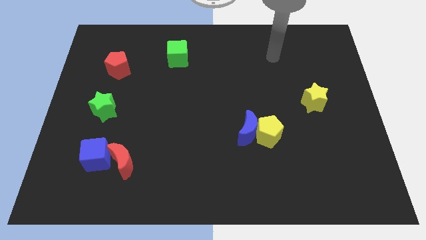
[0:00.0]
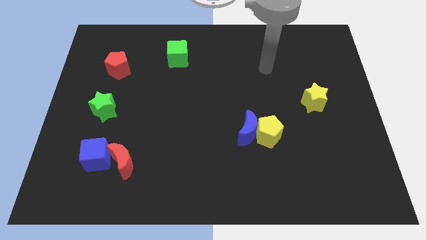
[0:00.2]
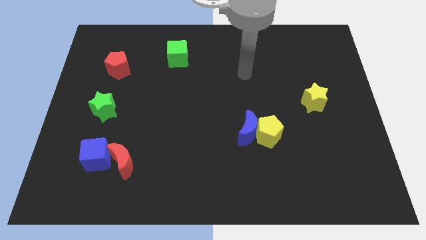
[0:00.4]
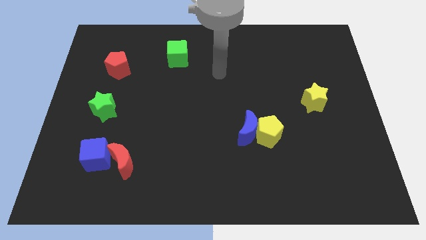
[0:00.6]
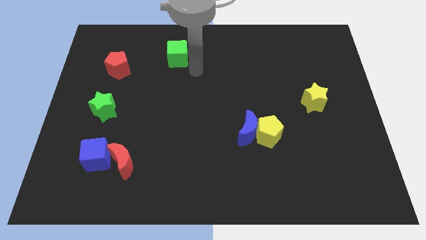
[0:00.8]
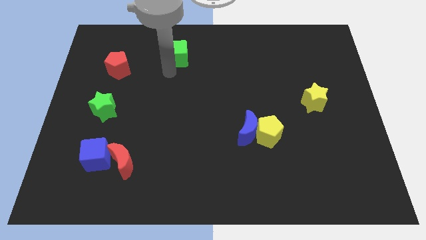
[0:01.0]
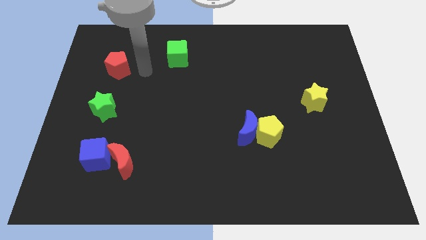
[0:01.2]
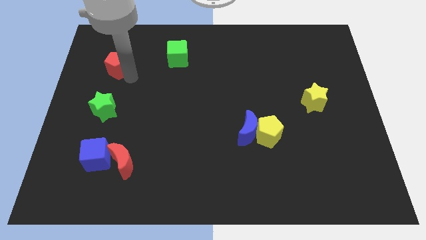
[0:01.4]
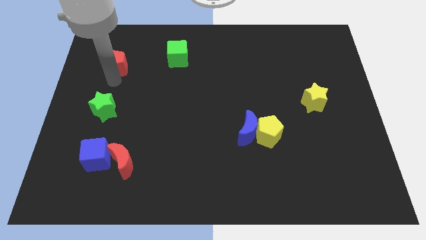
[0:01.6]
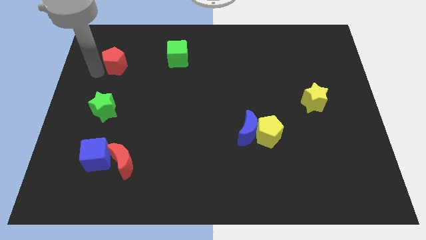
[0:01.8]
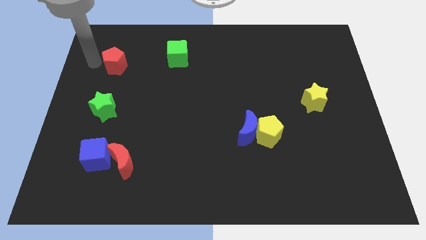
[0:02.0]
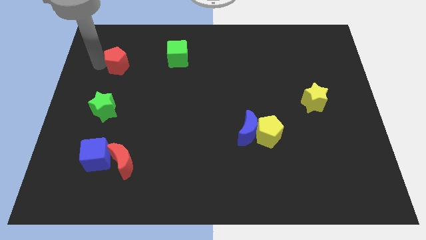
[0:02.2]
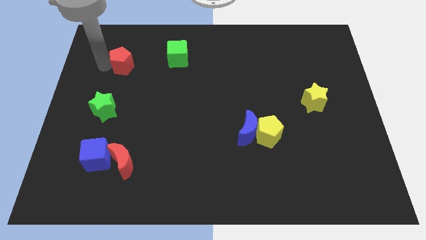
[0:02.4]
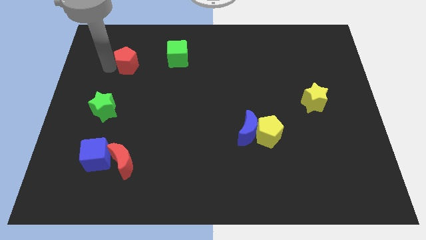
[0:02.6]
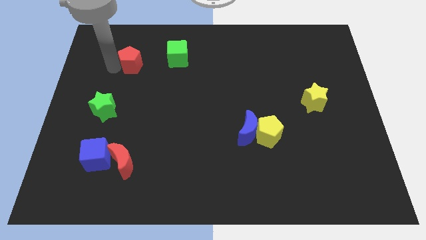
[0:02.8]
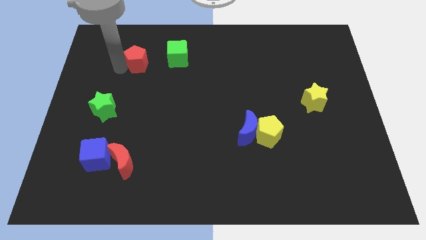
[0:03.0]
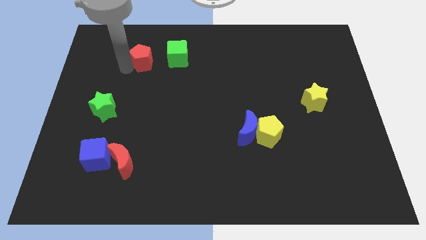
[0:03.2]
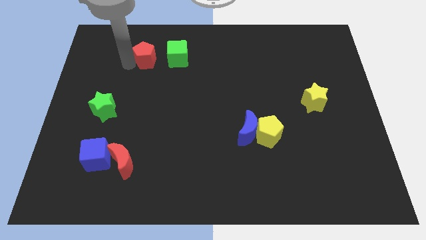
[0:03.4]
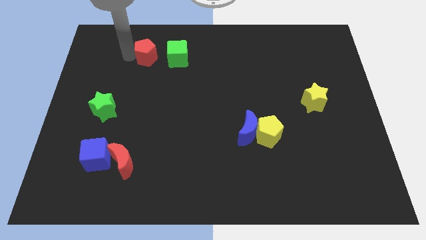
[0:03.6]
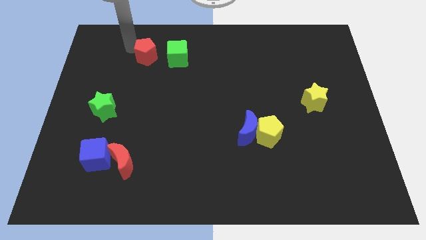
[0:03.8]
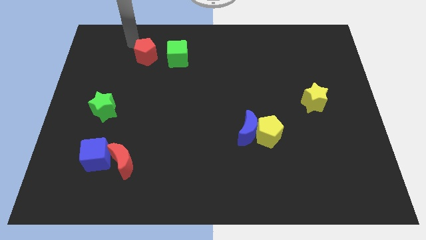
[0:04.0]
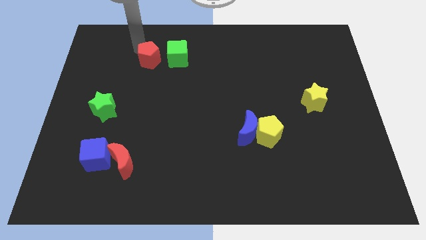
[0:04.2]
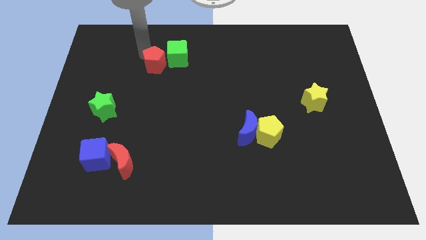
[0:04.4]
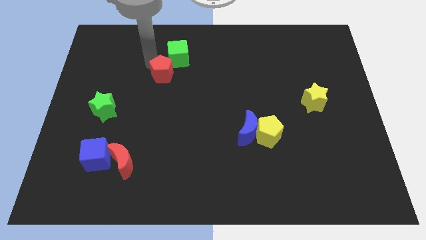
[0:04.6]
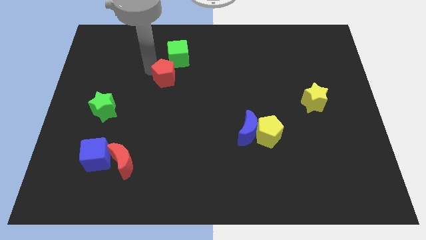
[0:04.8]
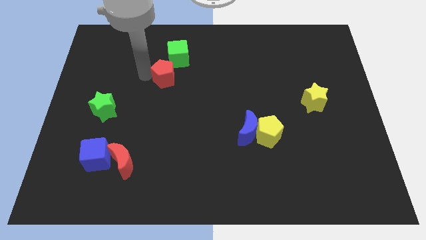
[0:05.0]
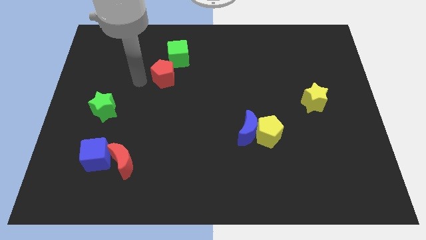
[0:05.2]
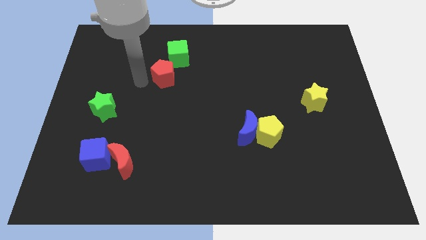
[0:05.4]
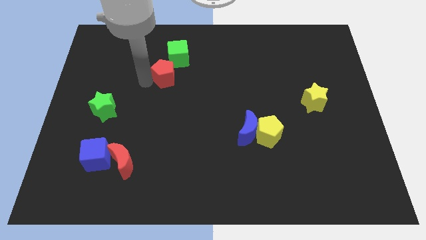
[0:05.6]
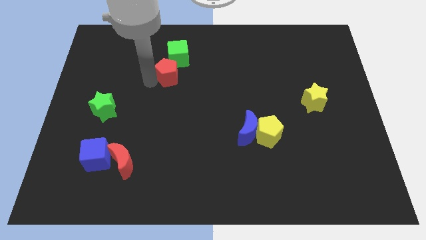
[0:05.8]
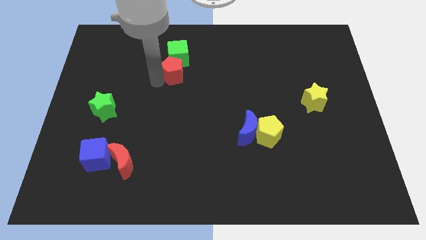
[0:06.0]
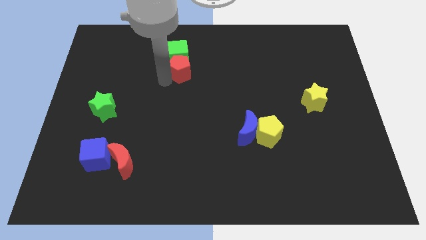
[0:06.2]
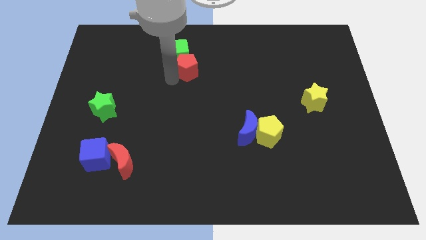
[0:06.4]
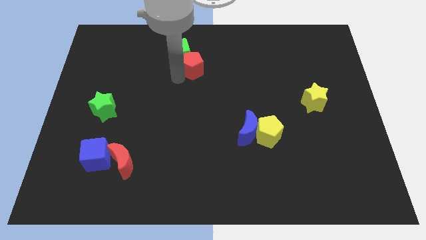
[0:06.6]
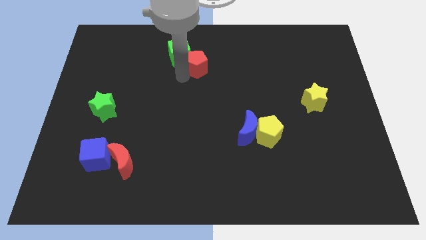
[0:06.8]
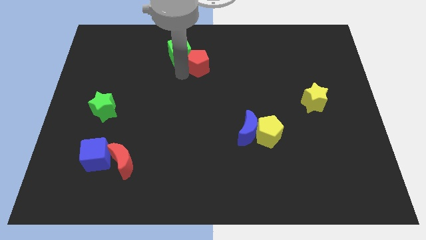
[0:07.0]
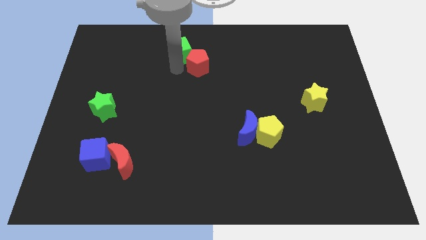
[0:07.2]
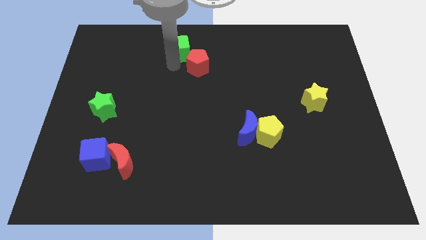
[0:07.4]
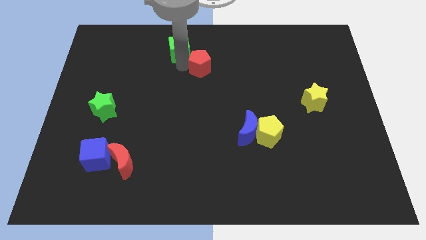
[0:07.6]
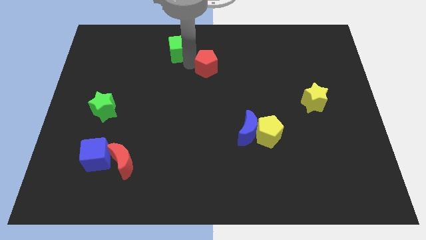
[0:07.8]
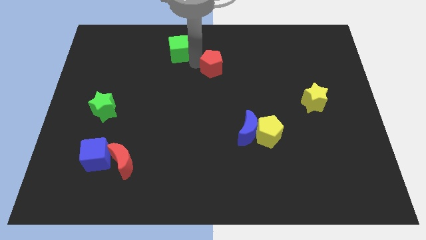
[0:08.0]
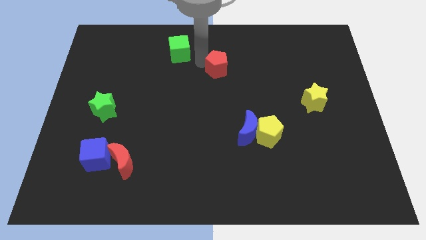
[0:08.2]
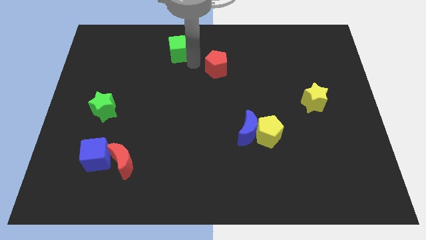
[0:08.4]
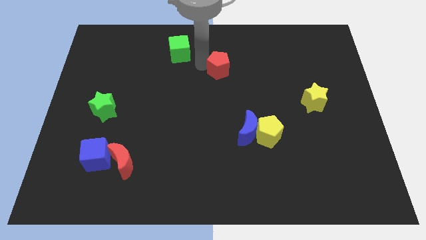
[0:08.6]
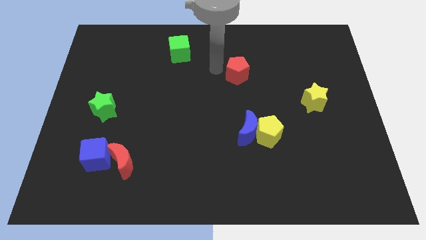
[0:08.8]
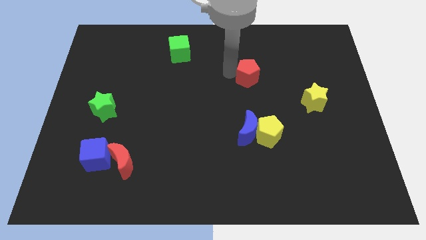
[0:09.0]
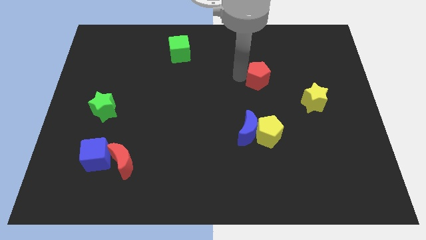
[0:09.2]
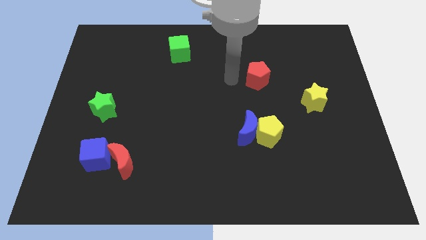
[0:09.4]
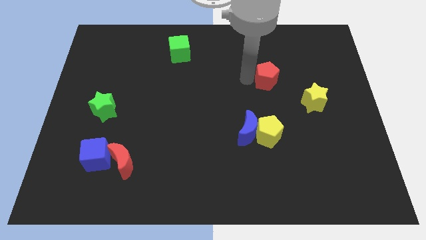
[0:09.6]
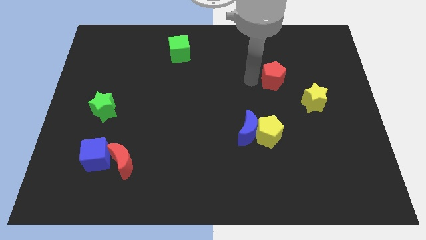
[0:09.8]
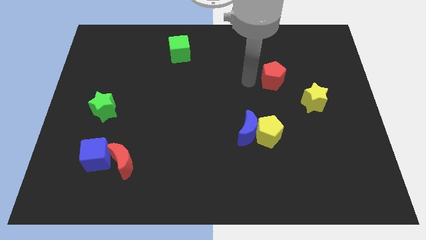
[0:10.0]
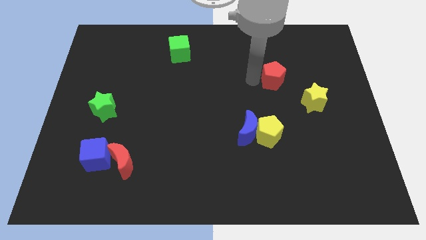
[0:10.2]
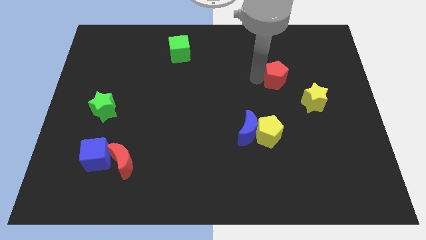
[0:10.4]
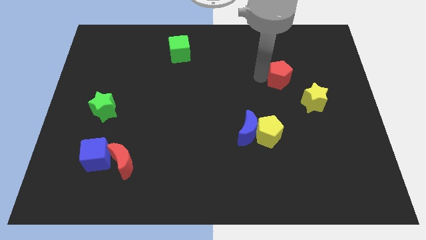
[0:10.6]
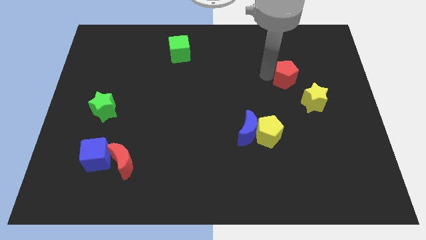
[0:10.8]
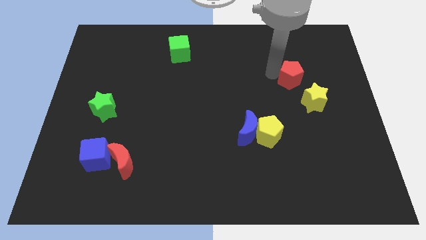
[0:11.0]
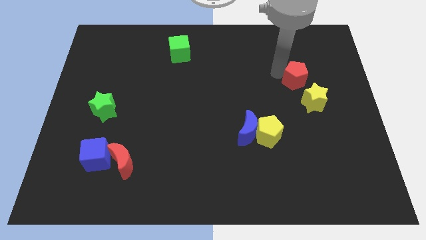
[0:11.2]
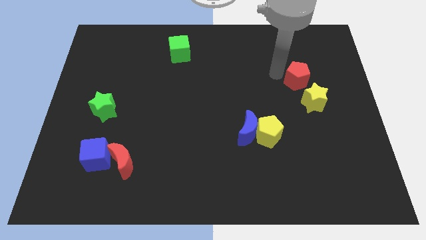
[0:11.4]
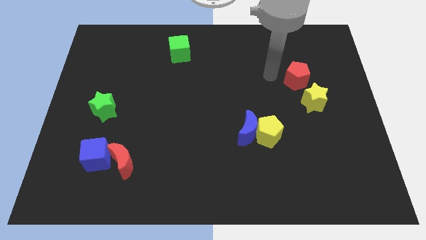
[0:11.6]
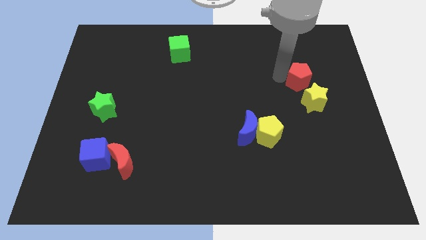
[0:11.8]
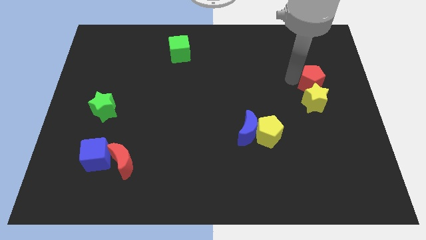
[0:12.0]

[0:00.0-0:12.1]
push the red pentagon to the top right side of the yellow star

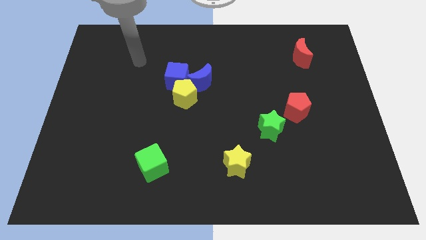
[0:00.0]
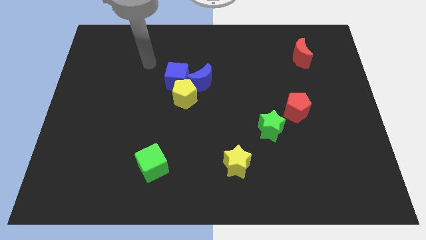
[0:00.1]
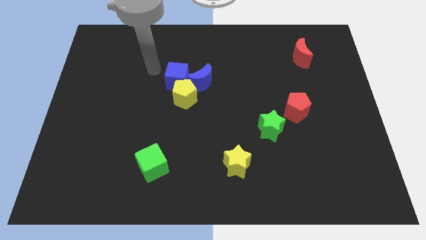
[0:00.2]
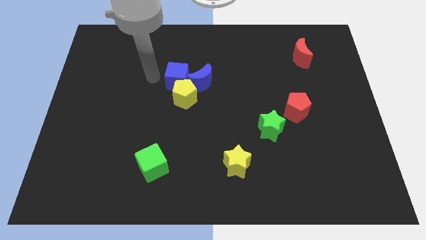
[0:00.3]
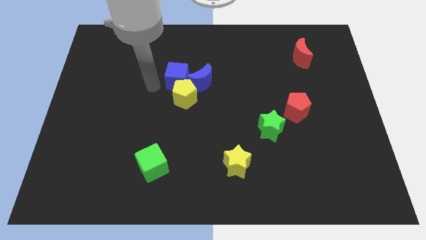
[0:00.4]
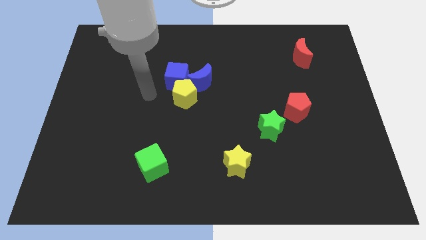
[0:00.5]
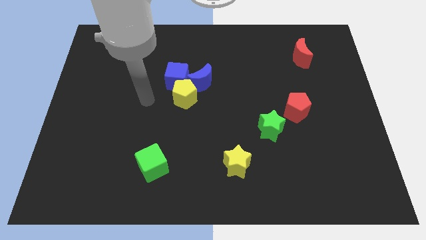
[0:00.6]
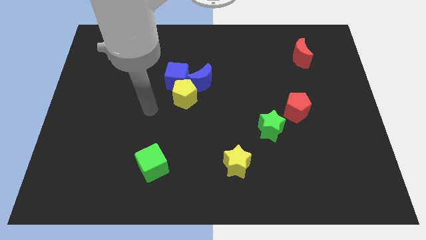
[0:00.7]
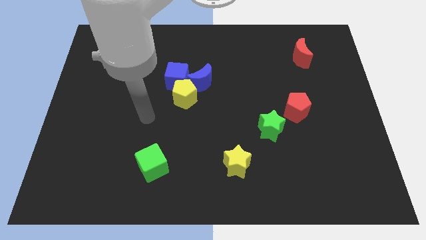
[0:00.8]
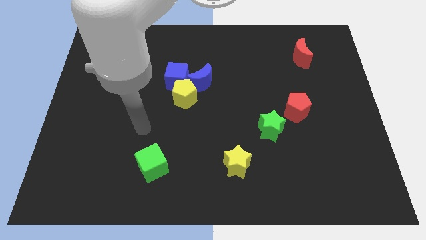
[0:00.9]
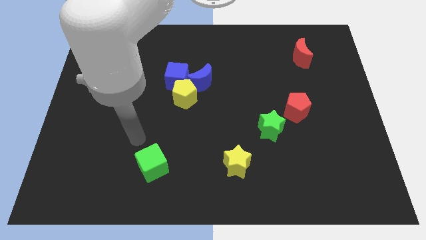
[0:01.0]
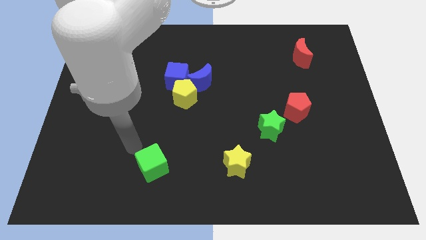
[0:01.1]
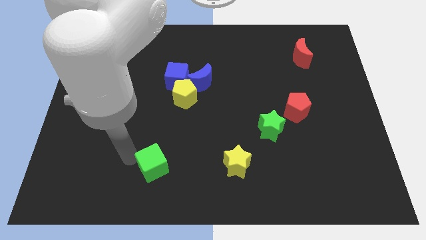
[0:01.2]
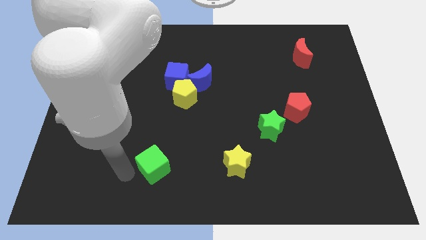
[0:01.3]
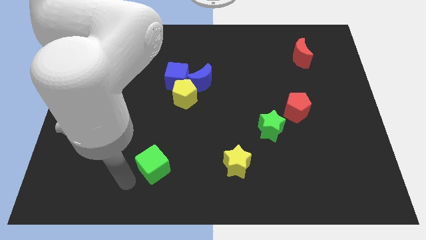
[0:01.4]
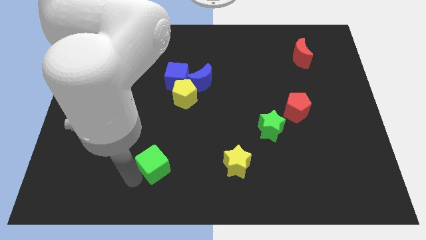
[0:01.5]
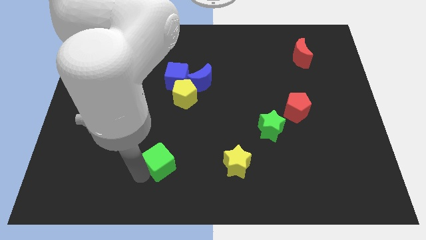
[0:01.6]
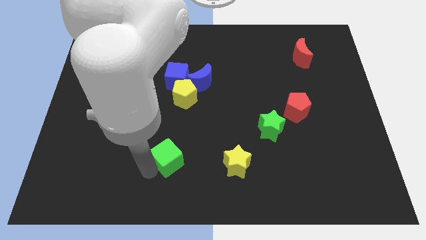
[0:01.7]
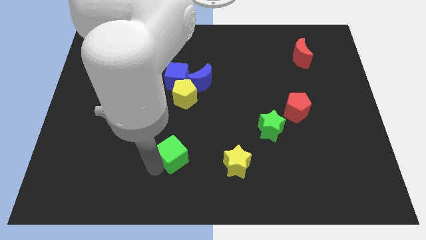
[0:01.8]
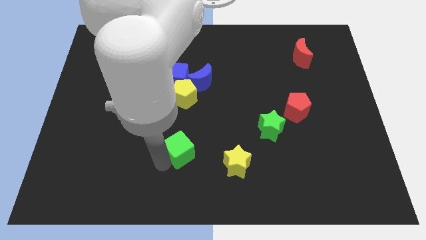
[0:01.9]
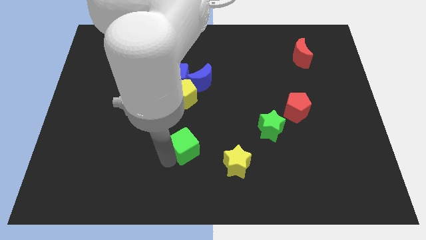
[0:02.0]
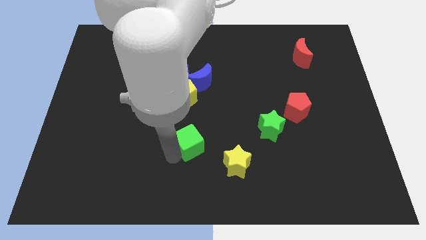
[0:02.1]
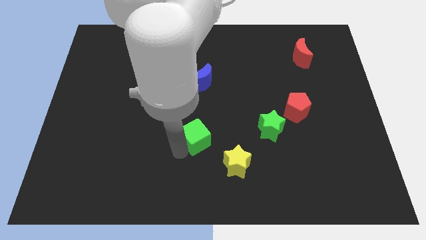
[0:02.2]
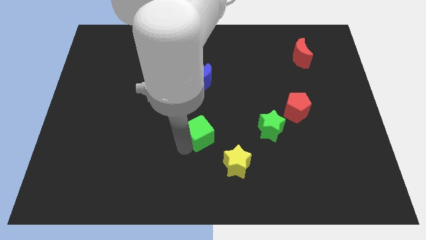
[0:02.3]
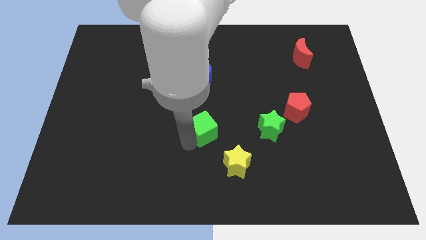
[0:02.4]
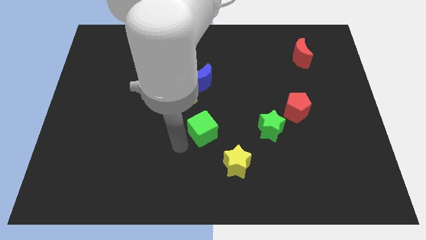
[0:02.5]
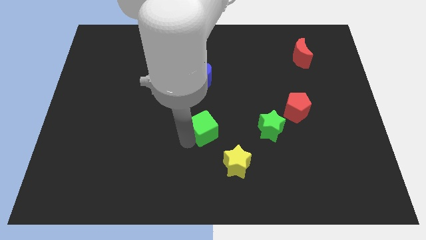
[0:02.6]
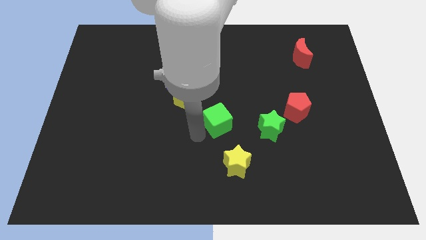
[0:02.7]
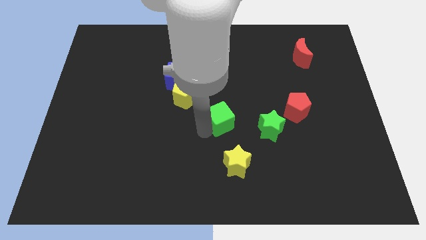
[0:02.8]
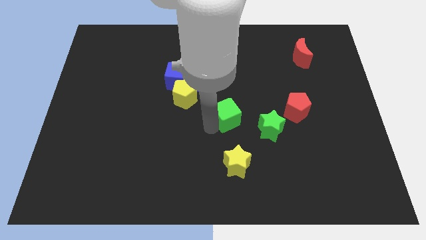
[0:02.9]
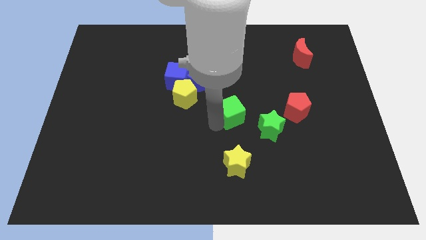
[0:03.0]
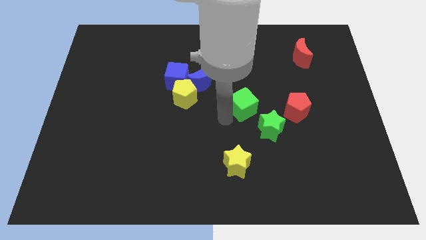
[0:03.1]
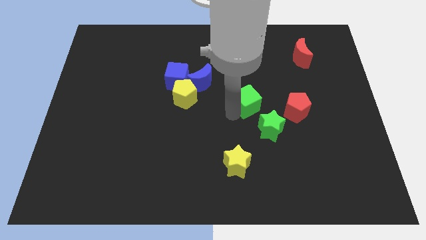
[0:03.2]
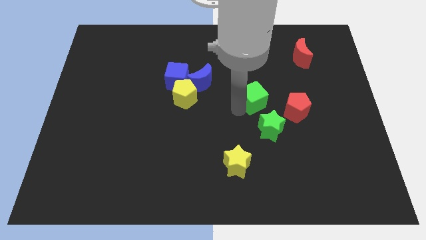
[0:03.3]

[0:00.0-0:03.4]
push the green cube to the top left of the red pentagon
